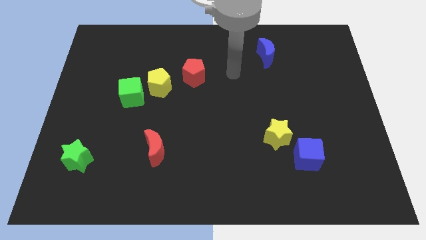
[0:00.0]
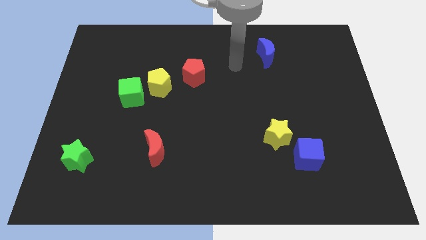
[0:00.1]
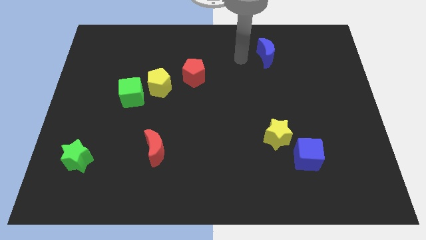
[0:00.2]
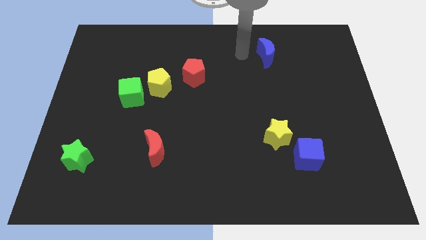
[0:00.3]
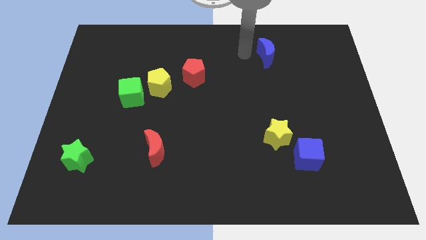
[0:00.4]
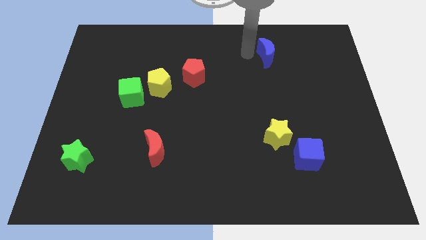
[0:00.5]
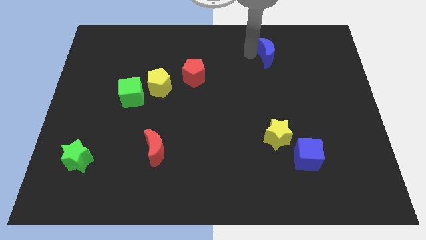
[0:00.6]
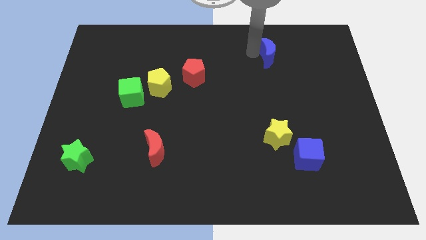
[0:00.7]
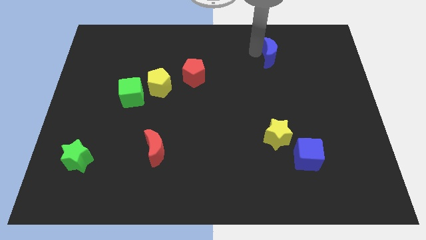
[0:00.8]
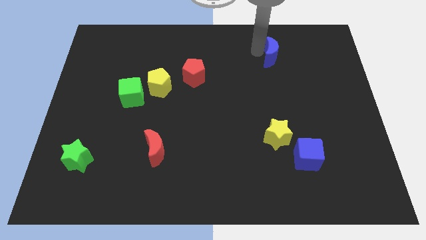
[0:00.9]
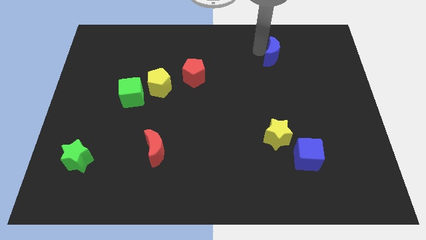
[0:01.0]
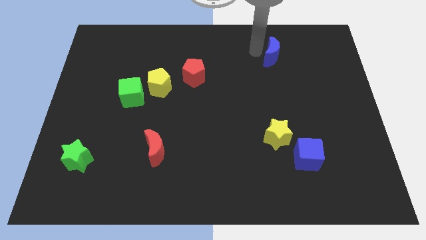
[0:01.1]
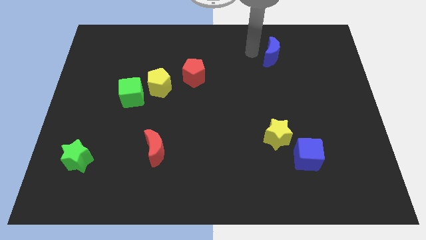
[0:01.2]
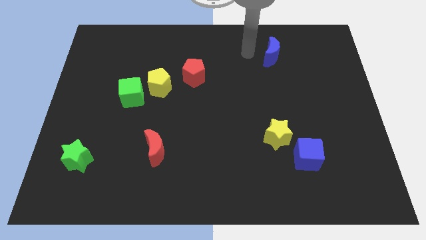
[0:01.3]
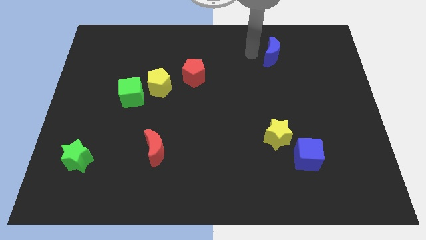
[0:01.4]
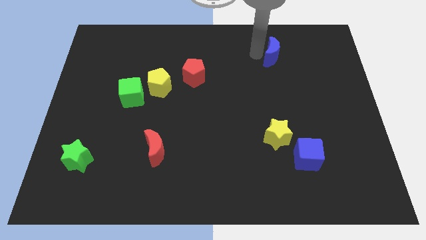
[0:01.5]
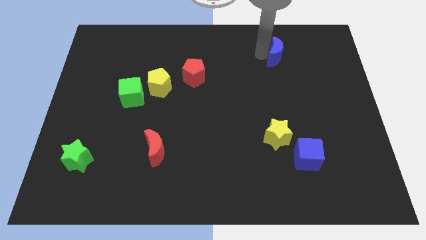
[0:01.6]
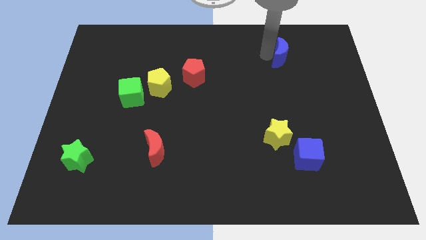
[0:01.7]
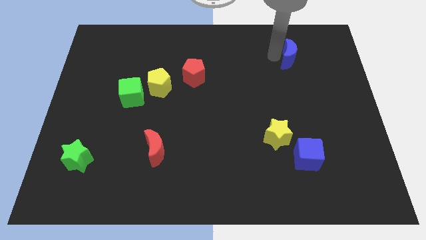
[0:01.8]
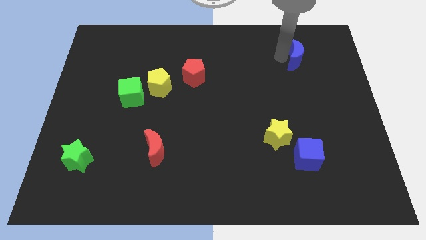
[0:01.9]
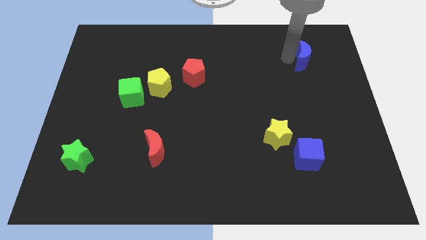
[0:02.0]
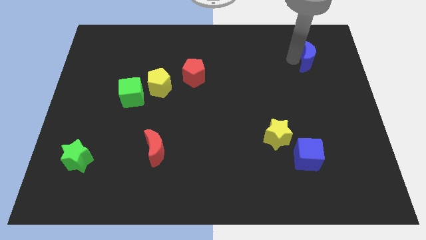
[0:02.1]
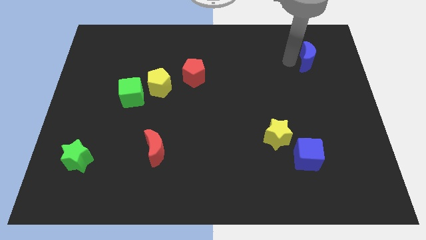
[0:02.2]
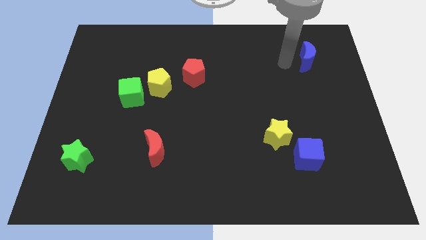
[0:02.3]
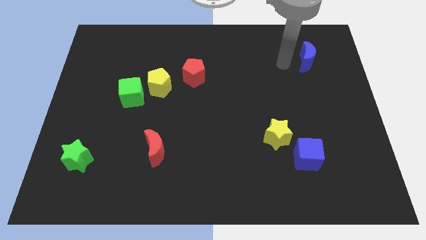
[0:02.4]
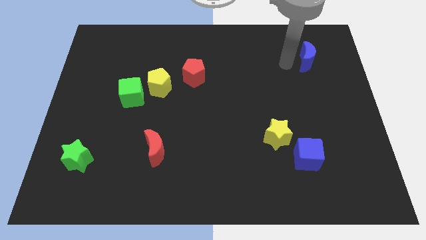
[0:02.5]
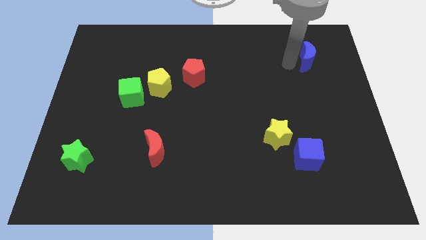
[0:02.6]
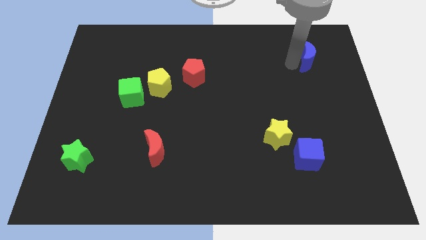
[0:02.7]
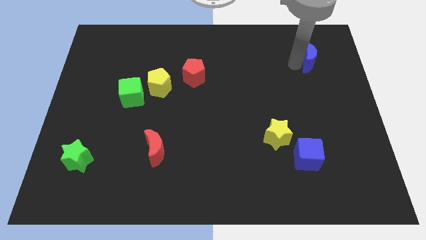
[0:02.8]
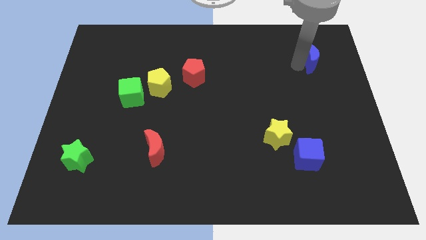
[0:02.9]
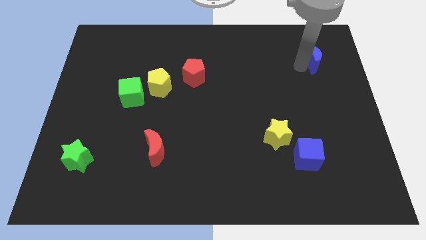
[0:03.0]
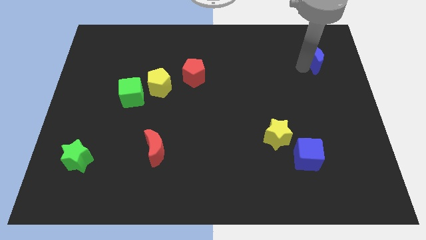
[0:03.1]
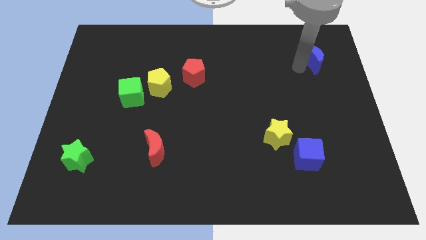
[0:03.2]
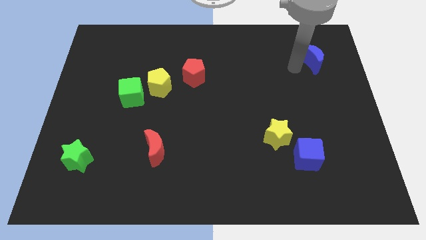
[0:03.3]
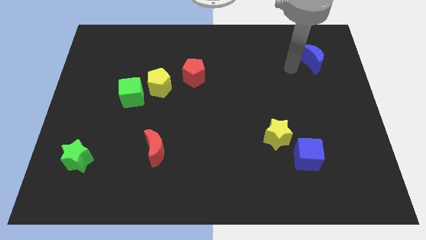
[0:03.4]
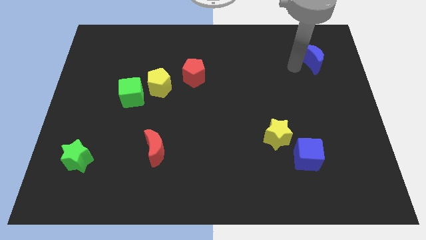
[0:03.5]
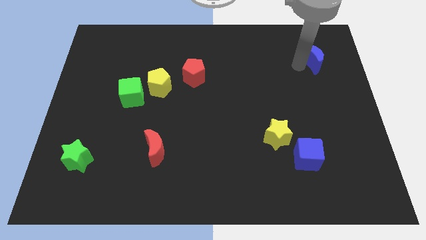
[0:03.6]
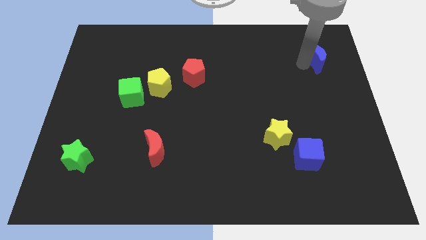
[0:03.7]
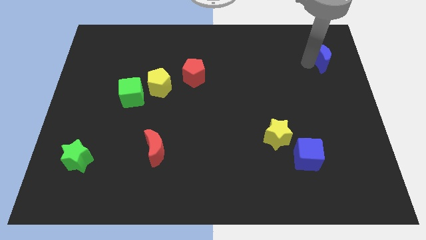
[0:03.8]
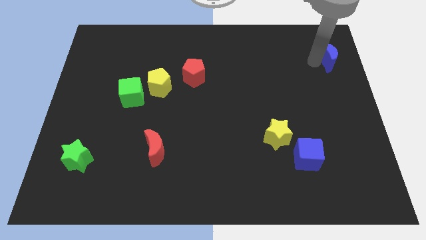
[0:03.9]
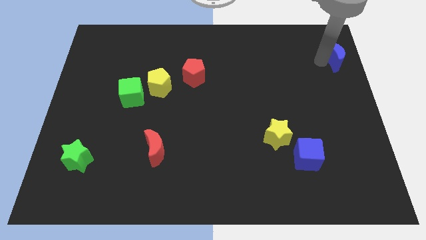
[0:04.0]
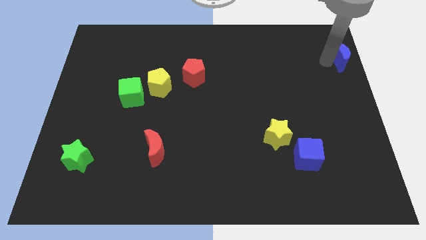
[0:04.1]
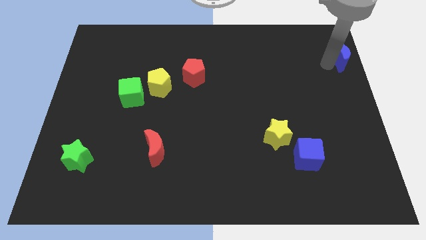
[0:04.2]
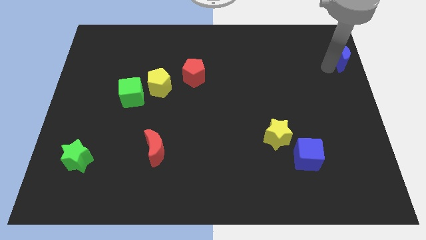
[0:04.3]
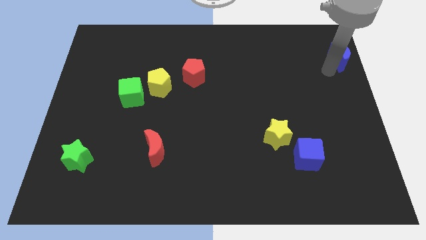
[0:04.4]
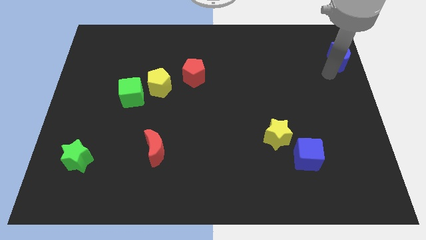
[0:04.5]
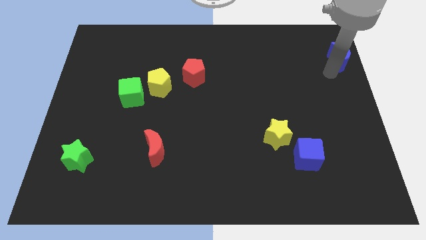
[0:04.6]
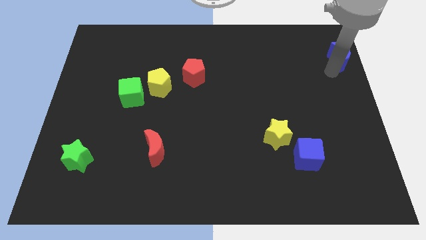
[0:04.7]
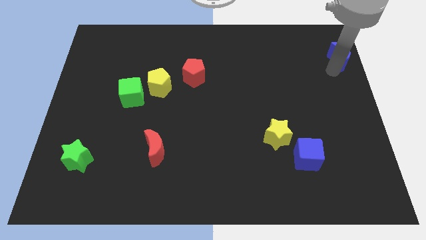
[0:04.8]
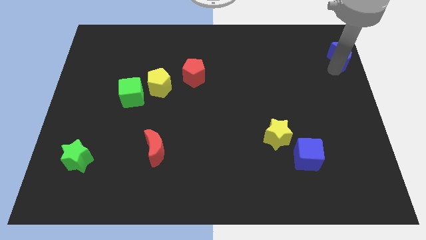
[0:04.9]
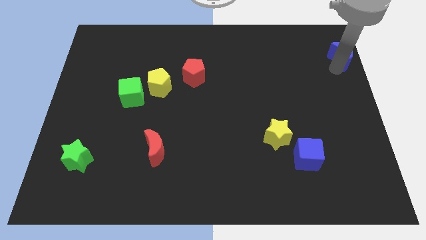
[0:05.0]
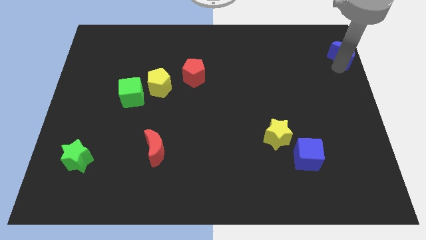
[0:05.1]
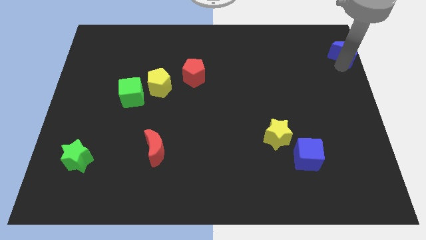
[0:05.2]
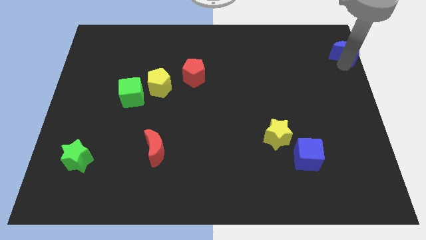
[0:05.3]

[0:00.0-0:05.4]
put the blue moon to the upper right corner

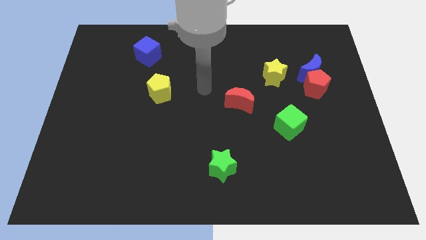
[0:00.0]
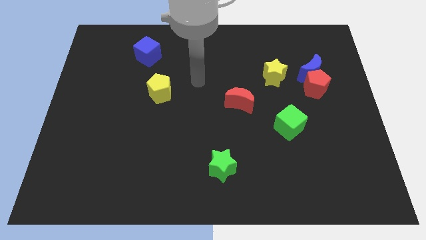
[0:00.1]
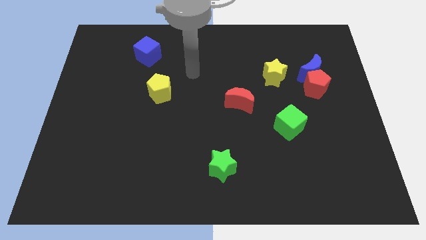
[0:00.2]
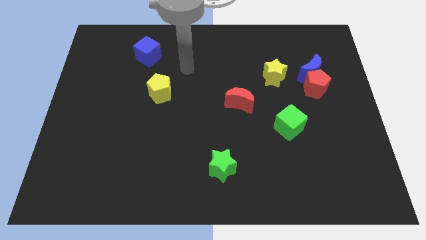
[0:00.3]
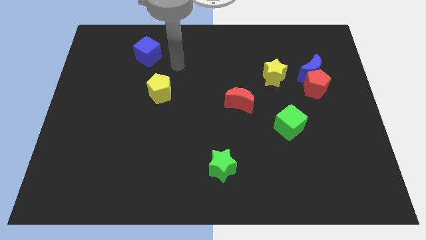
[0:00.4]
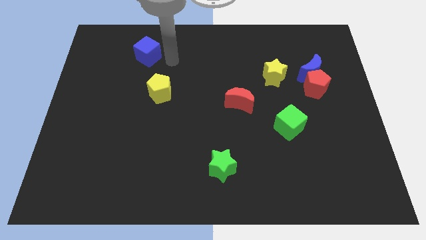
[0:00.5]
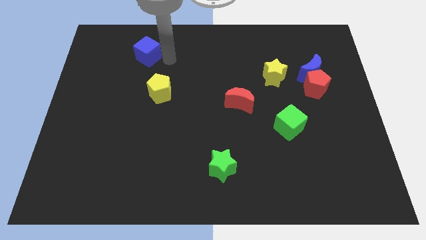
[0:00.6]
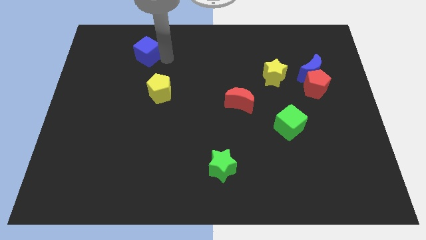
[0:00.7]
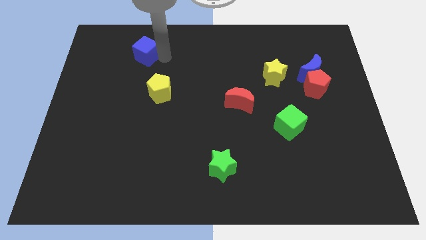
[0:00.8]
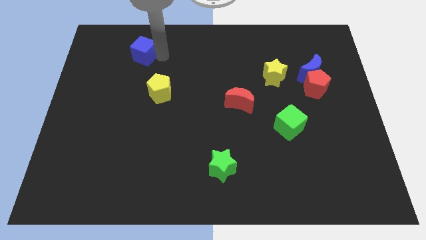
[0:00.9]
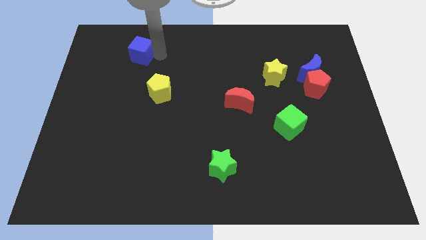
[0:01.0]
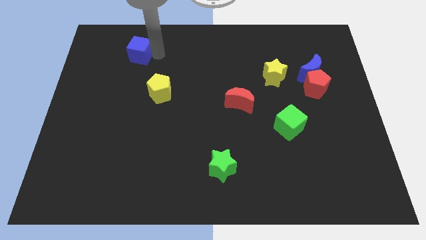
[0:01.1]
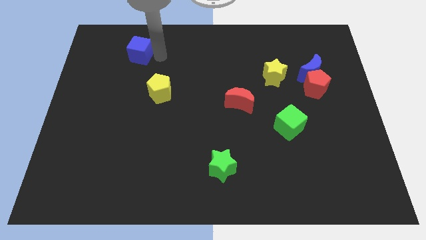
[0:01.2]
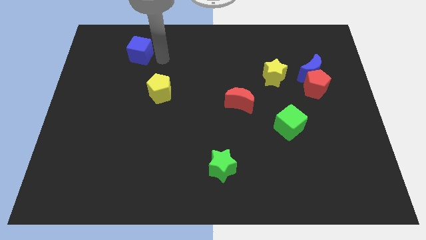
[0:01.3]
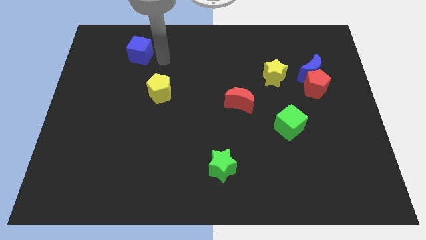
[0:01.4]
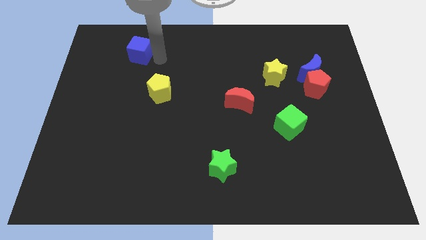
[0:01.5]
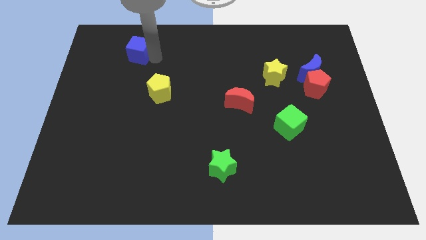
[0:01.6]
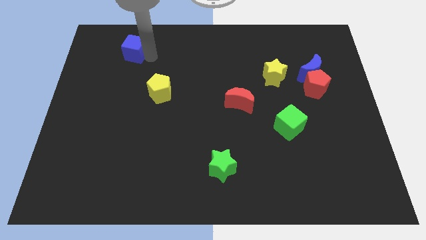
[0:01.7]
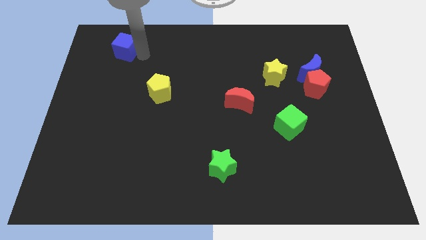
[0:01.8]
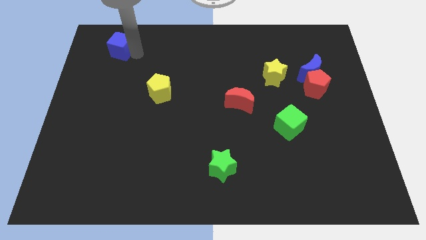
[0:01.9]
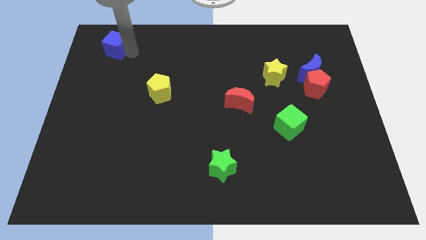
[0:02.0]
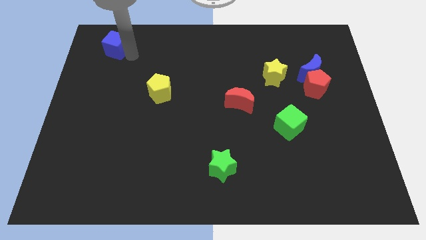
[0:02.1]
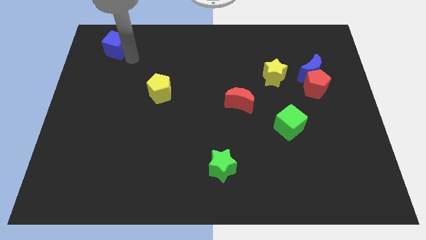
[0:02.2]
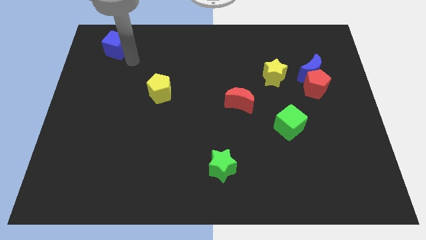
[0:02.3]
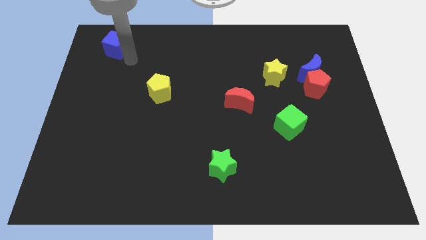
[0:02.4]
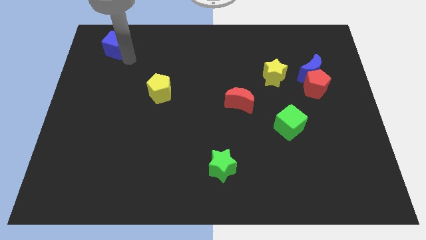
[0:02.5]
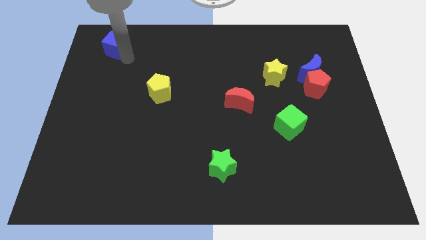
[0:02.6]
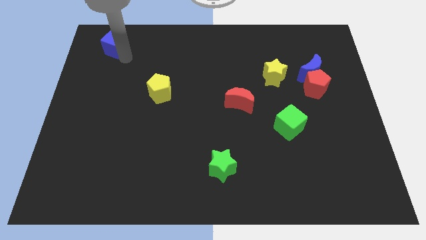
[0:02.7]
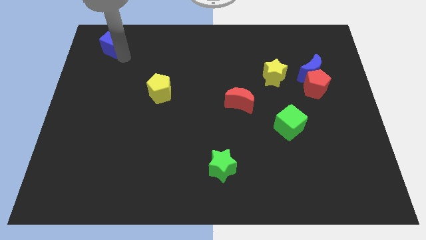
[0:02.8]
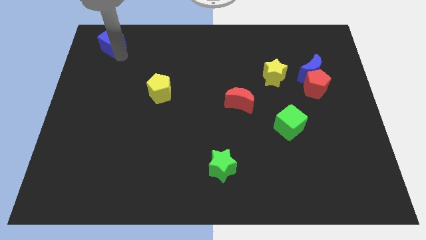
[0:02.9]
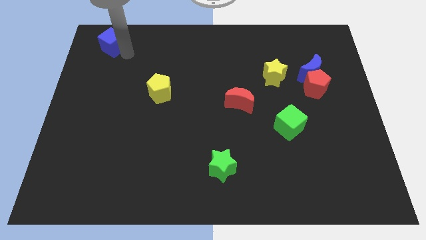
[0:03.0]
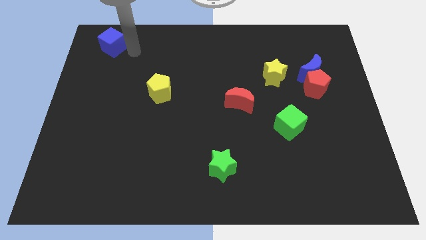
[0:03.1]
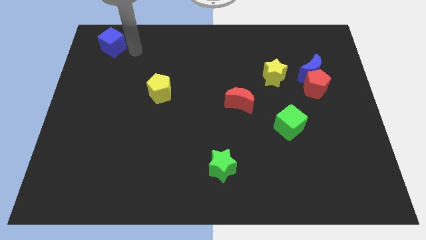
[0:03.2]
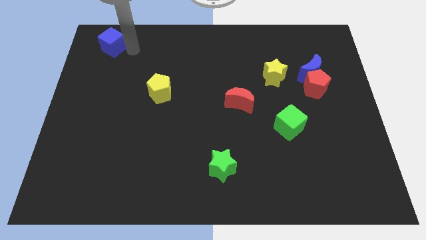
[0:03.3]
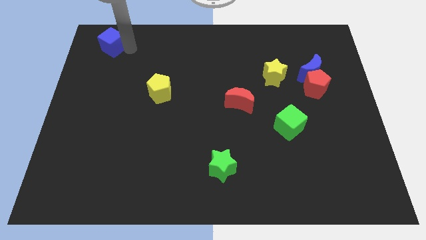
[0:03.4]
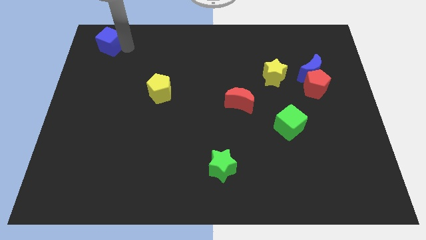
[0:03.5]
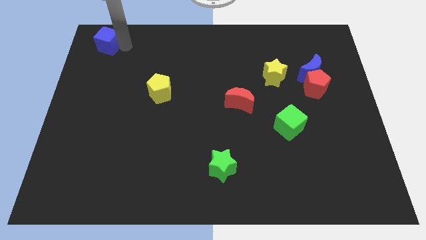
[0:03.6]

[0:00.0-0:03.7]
slide the blue cube to the top left corner
